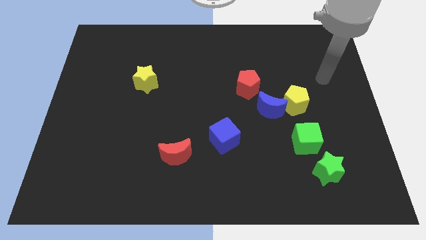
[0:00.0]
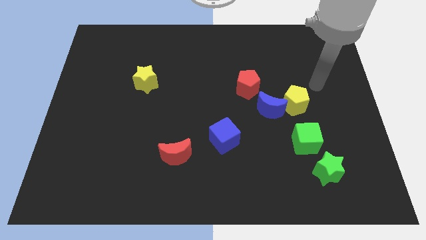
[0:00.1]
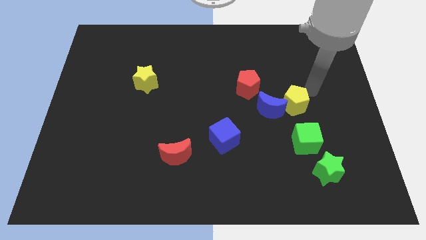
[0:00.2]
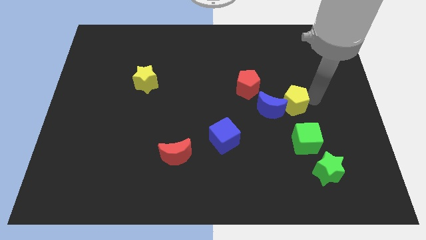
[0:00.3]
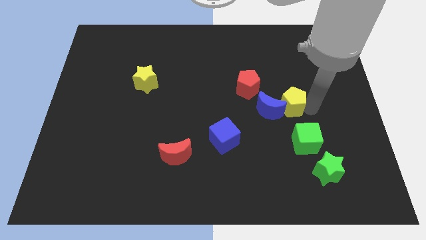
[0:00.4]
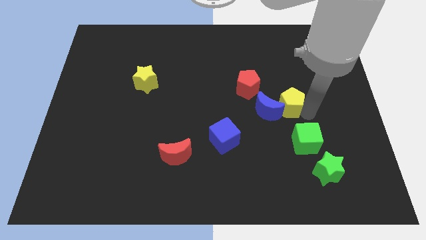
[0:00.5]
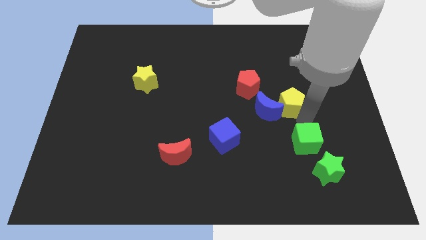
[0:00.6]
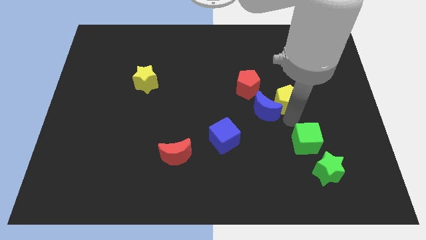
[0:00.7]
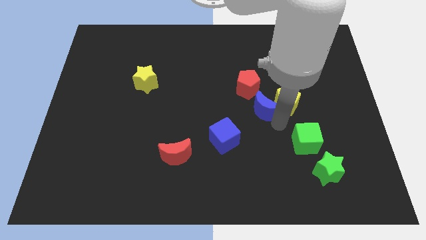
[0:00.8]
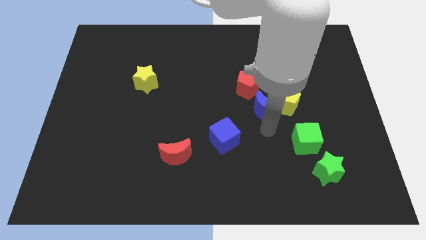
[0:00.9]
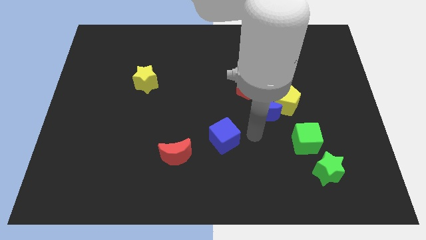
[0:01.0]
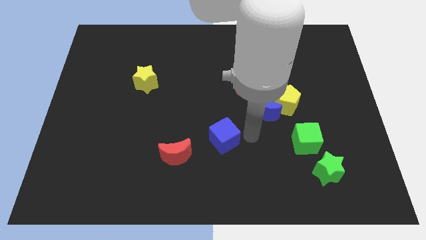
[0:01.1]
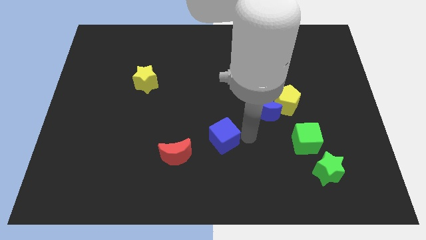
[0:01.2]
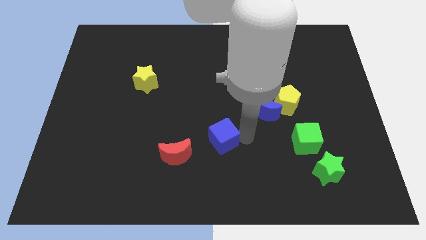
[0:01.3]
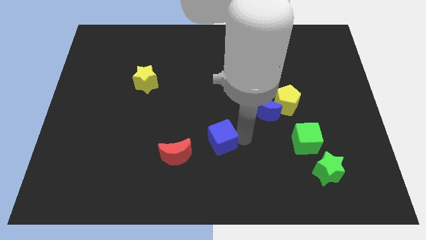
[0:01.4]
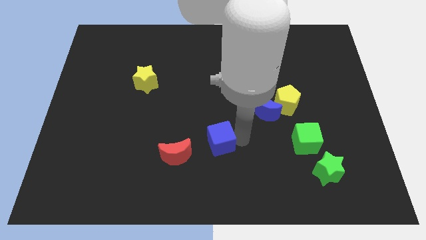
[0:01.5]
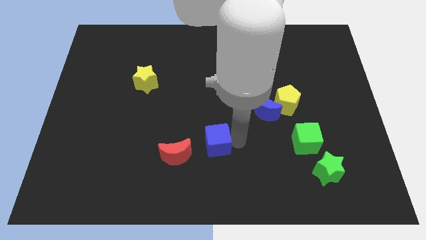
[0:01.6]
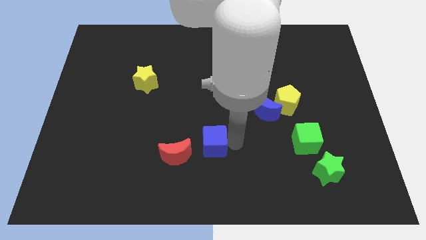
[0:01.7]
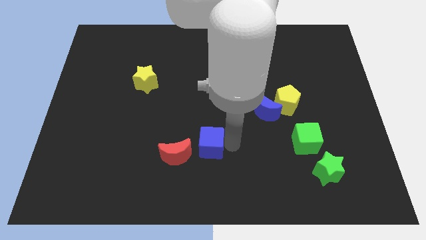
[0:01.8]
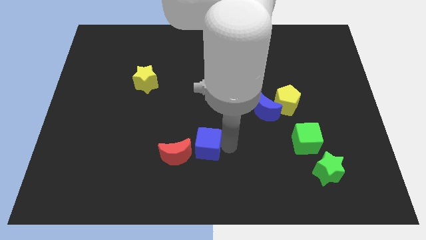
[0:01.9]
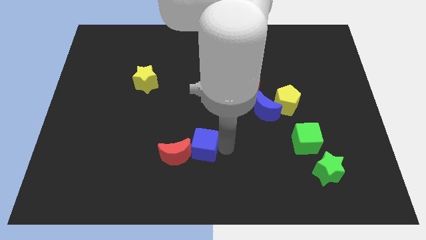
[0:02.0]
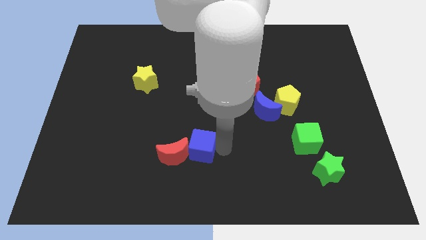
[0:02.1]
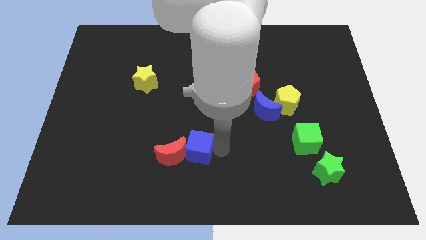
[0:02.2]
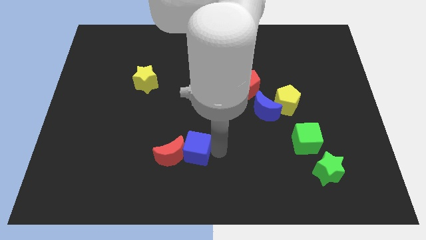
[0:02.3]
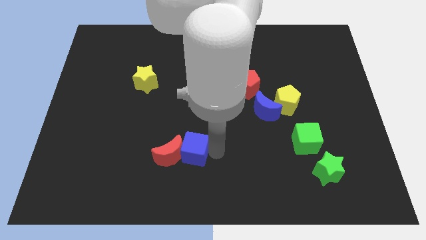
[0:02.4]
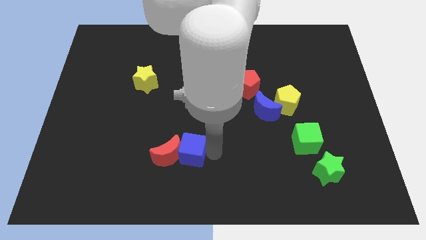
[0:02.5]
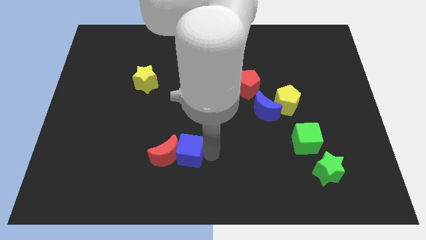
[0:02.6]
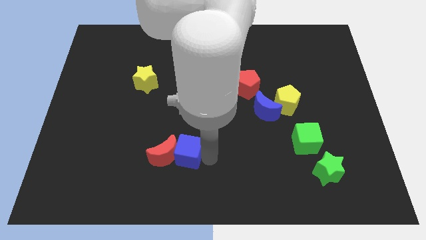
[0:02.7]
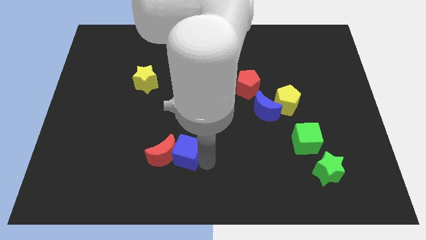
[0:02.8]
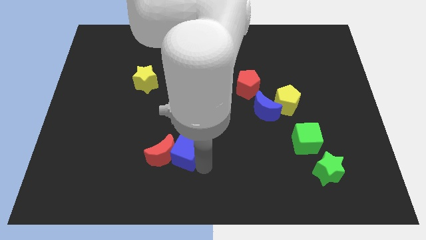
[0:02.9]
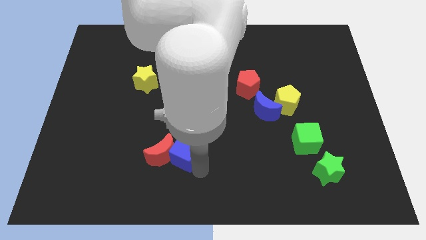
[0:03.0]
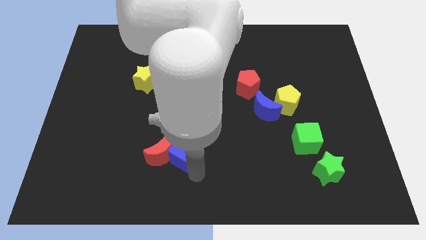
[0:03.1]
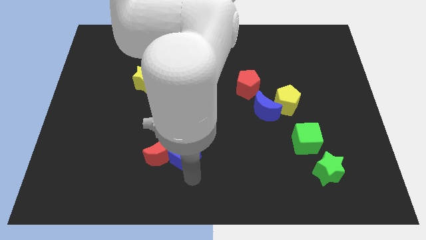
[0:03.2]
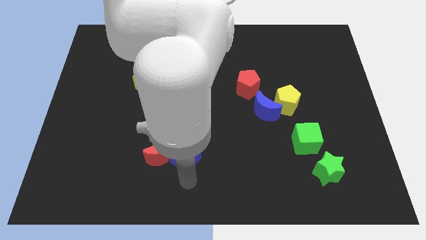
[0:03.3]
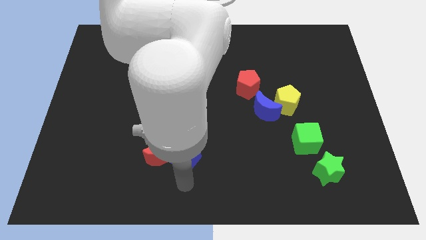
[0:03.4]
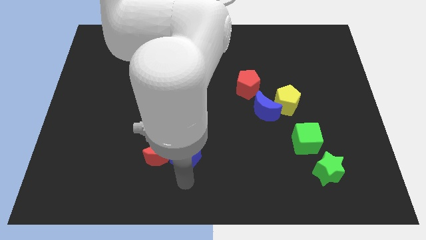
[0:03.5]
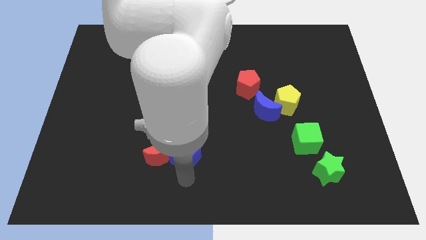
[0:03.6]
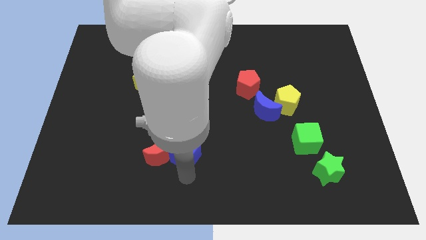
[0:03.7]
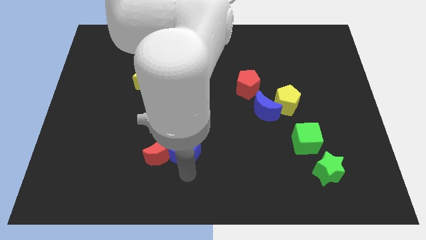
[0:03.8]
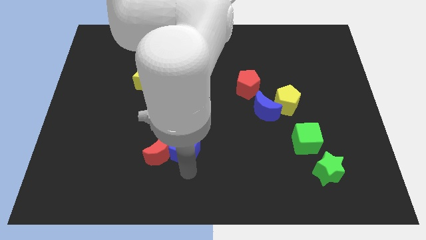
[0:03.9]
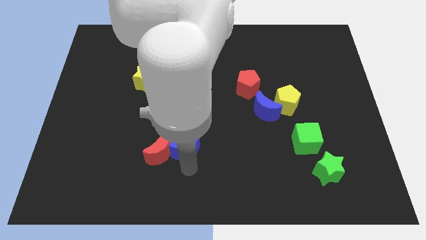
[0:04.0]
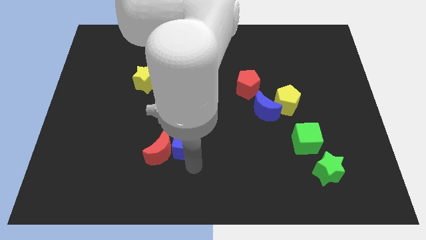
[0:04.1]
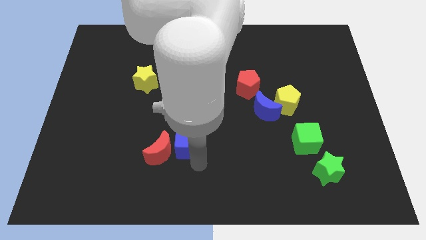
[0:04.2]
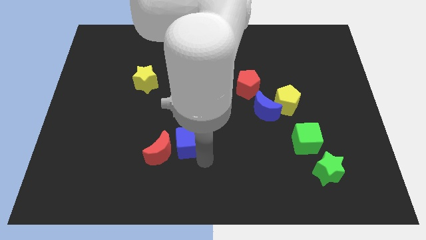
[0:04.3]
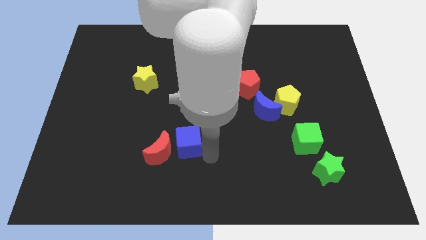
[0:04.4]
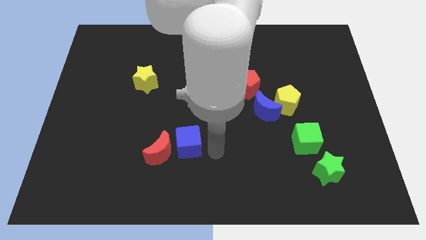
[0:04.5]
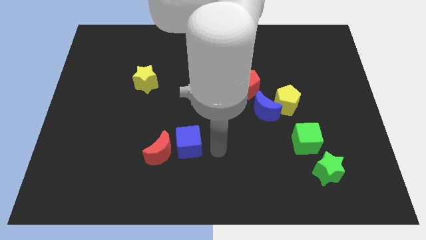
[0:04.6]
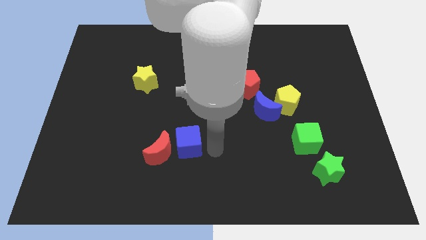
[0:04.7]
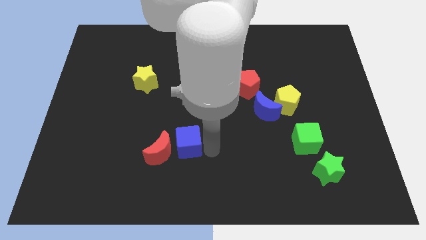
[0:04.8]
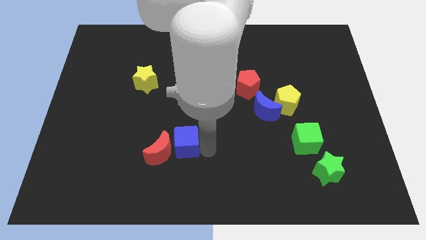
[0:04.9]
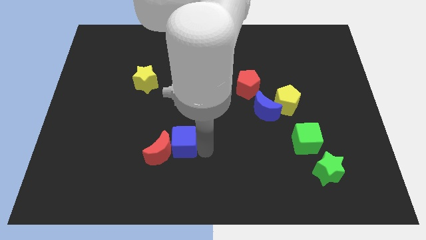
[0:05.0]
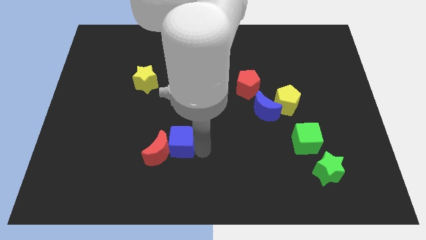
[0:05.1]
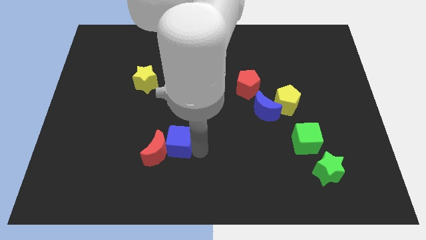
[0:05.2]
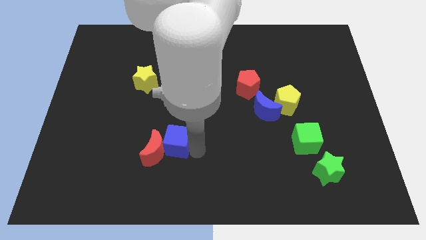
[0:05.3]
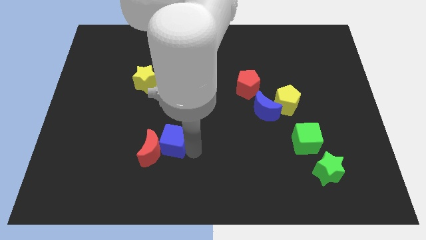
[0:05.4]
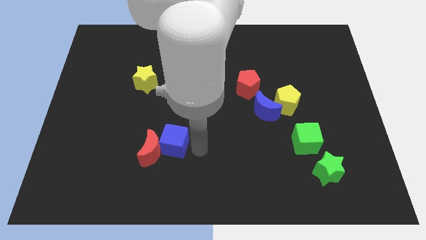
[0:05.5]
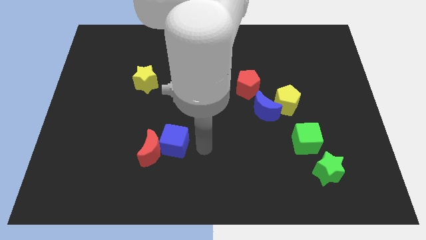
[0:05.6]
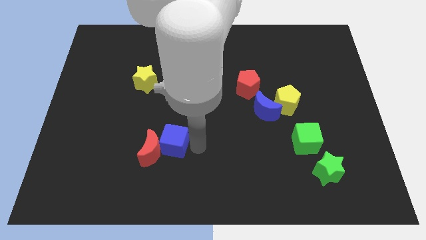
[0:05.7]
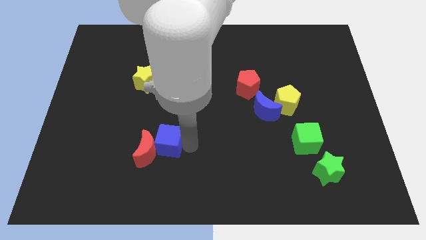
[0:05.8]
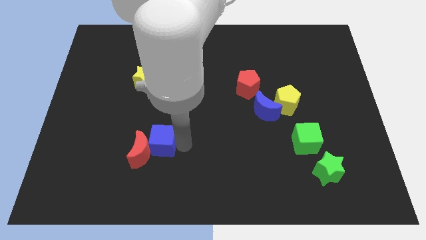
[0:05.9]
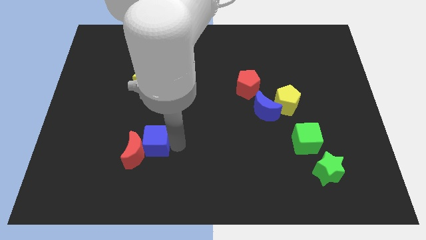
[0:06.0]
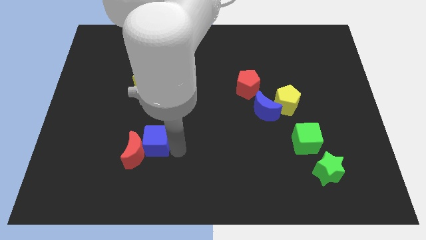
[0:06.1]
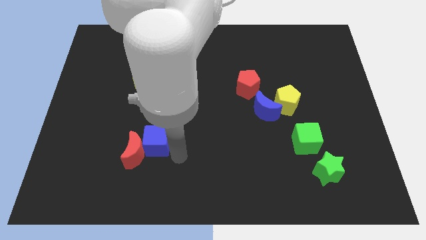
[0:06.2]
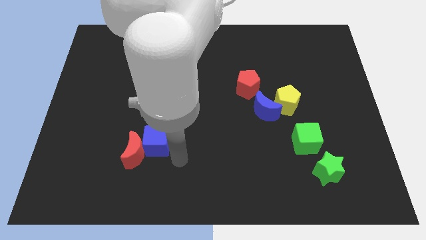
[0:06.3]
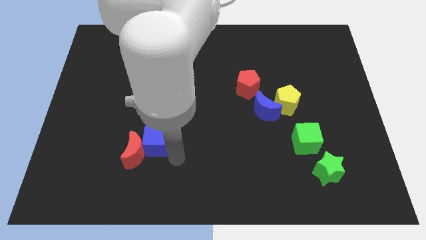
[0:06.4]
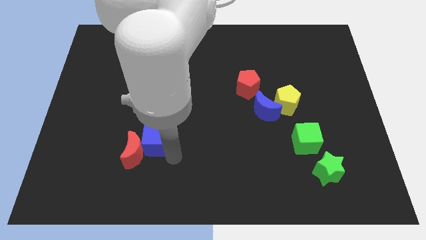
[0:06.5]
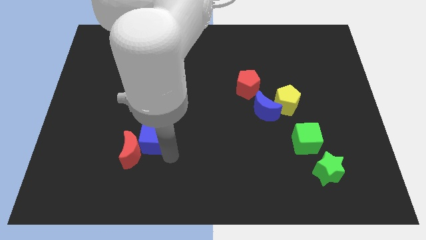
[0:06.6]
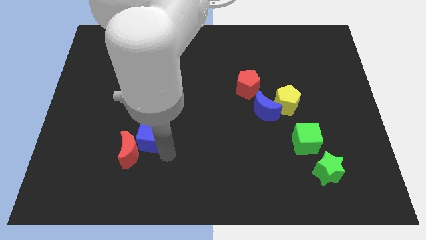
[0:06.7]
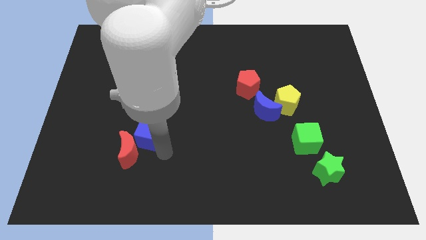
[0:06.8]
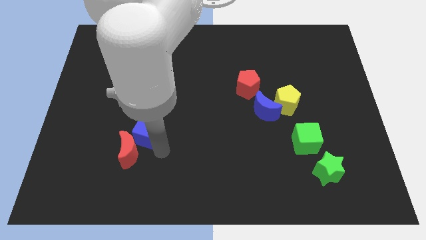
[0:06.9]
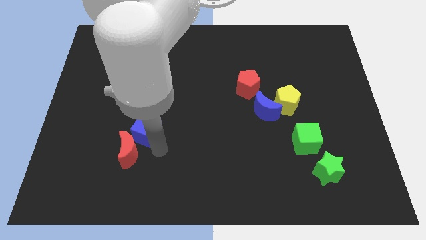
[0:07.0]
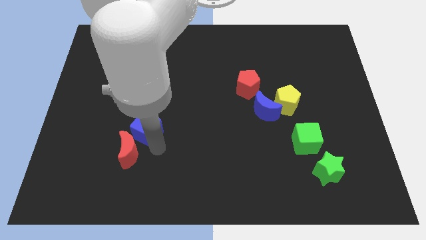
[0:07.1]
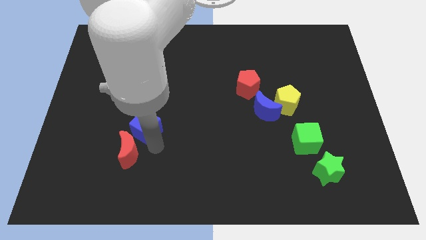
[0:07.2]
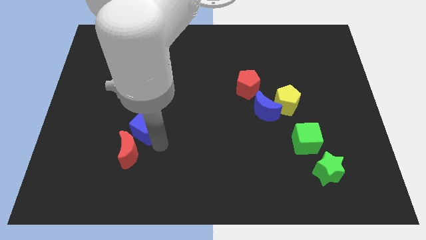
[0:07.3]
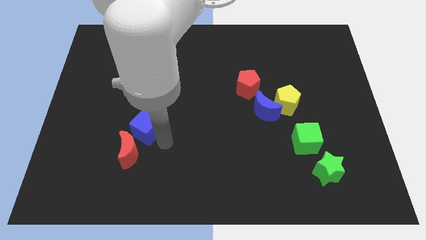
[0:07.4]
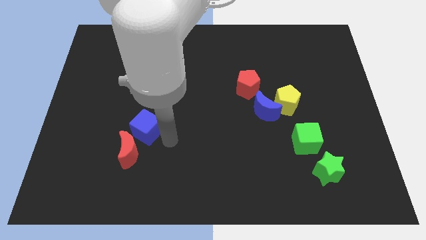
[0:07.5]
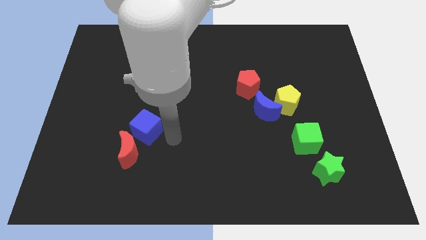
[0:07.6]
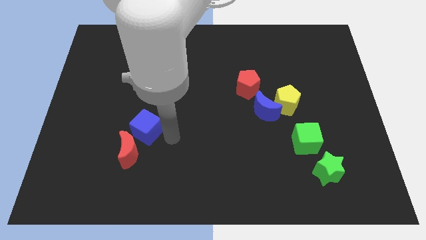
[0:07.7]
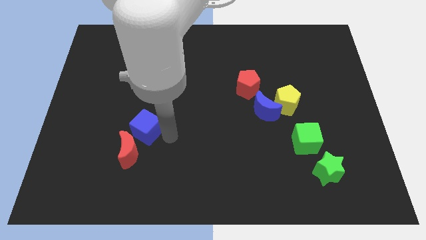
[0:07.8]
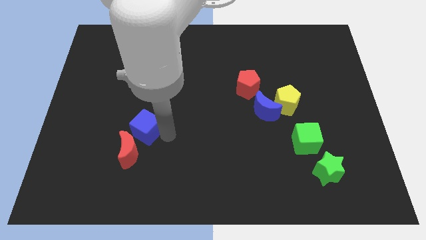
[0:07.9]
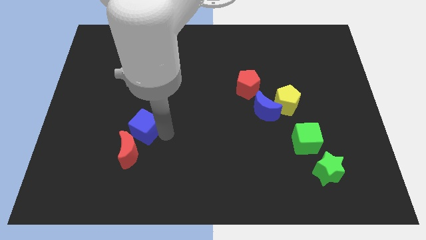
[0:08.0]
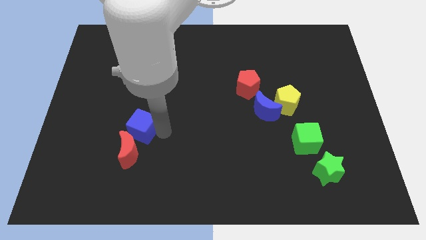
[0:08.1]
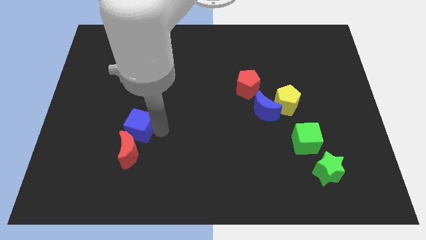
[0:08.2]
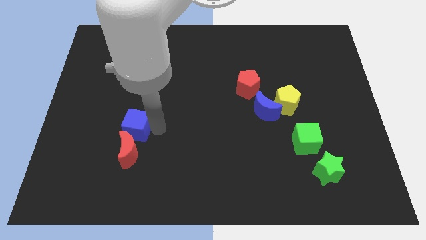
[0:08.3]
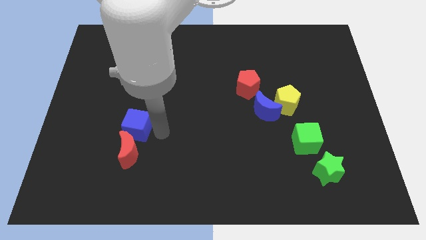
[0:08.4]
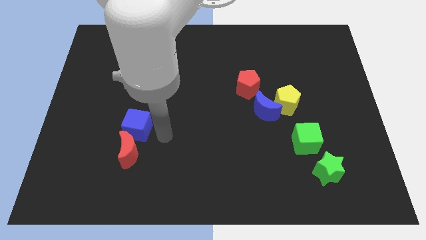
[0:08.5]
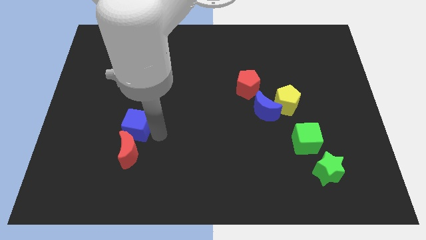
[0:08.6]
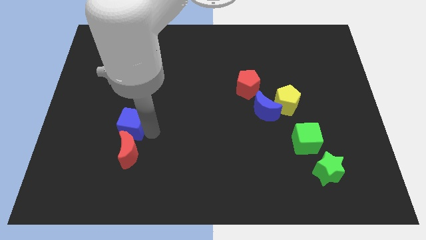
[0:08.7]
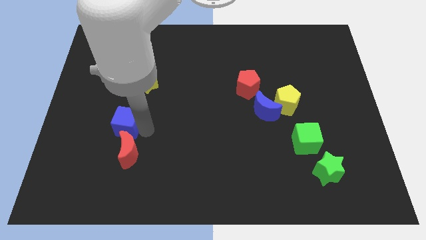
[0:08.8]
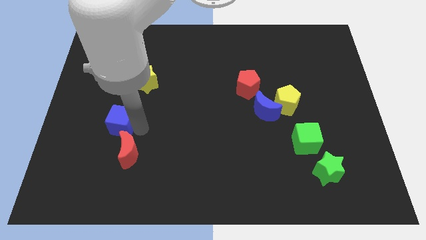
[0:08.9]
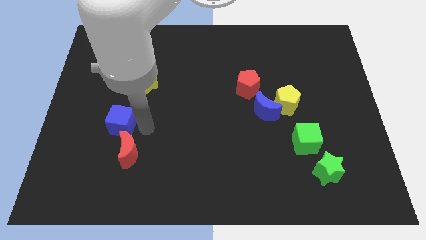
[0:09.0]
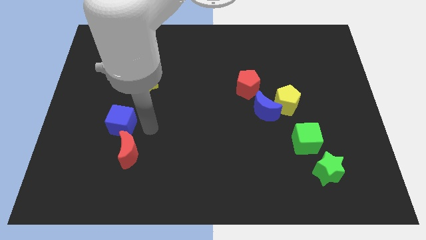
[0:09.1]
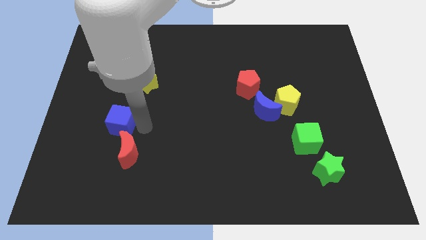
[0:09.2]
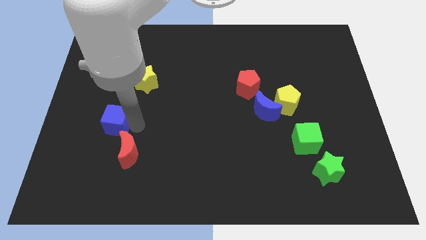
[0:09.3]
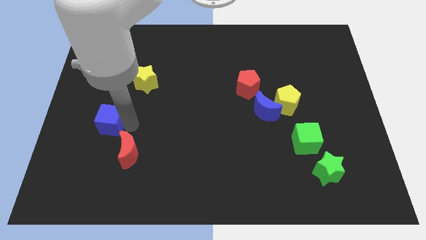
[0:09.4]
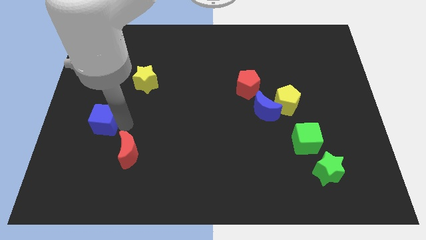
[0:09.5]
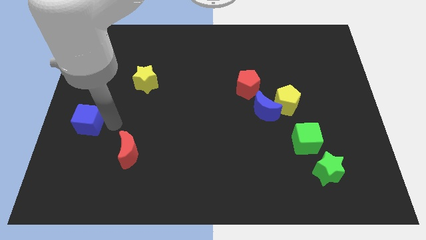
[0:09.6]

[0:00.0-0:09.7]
push the blue cube to the center left
